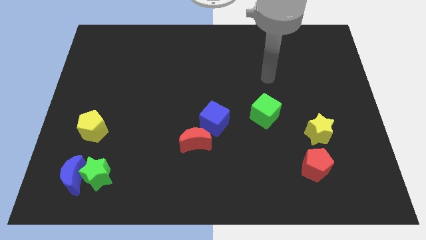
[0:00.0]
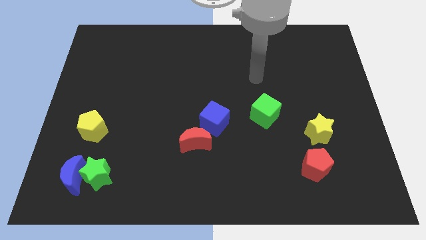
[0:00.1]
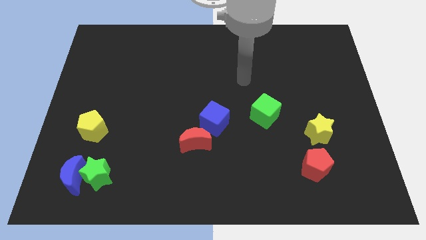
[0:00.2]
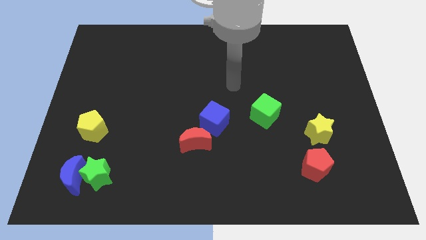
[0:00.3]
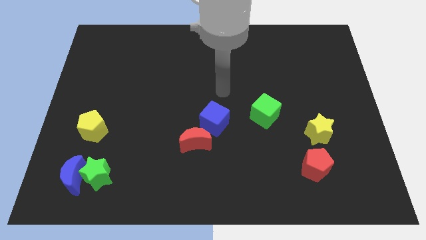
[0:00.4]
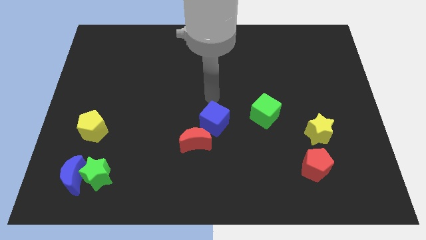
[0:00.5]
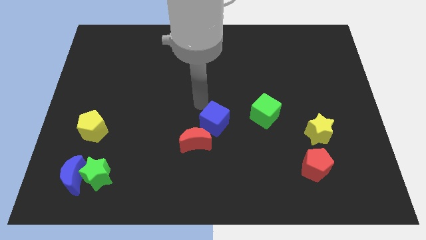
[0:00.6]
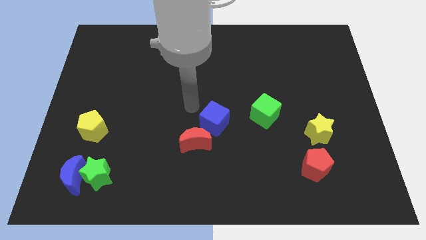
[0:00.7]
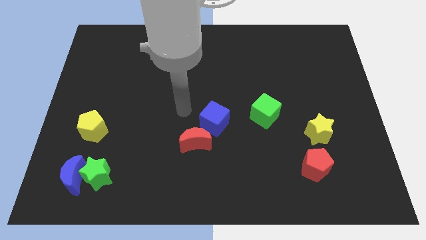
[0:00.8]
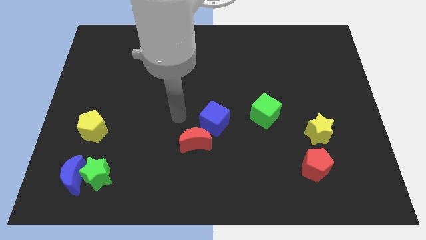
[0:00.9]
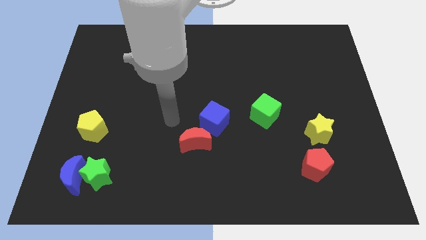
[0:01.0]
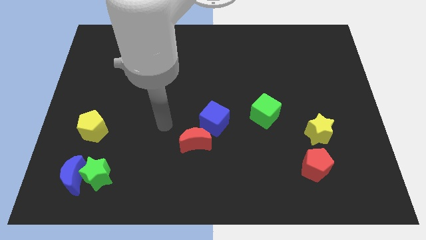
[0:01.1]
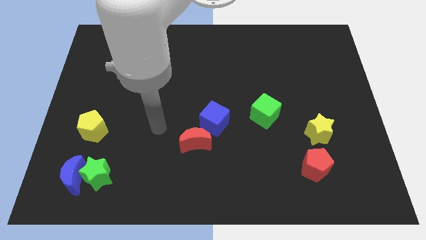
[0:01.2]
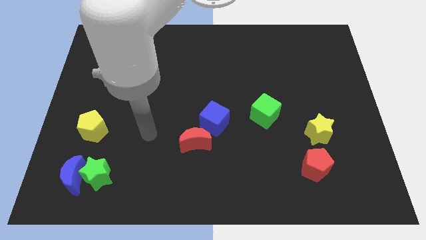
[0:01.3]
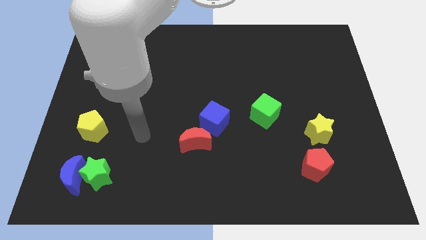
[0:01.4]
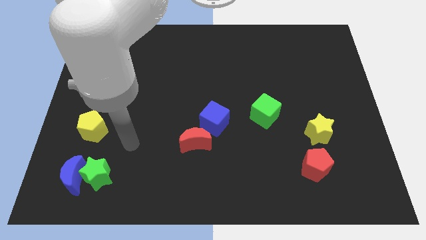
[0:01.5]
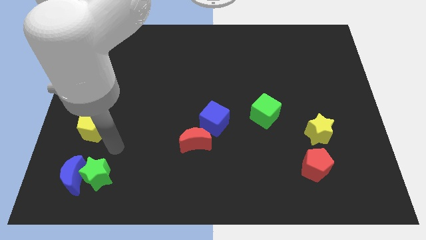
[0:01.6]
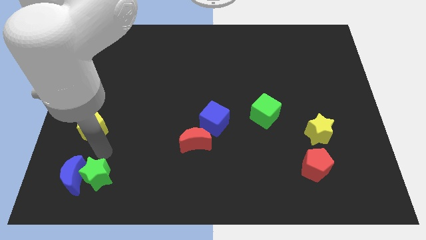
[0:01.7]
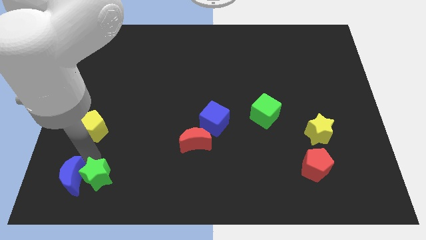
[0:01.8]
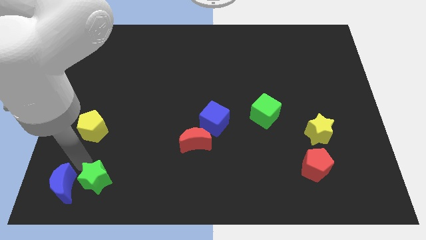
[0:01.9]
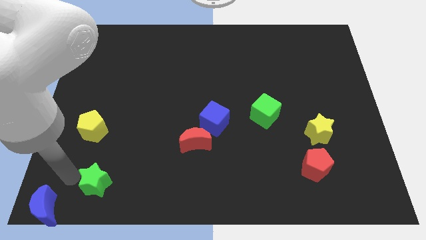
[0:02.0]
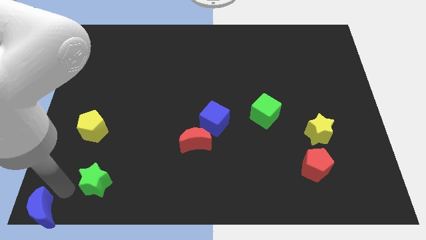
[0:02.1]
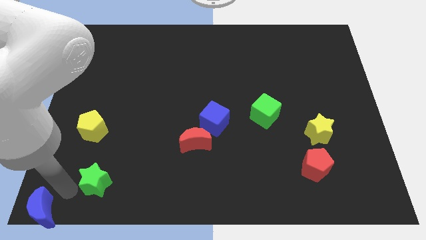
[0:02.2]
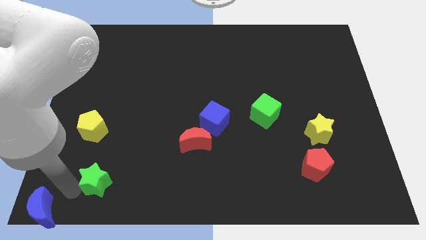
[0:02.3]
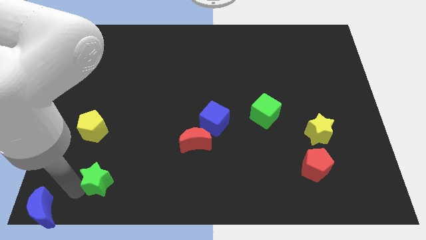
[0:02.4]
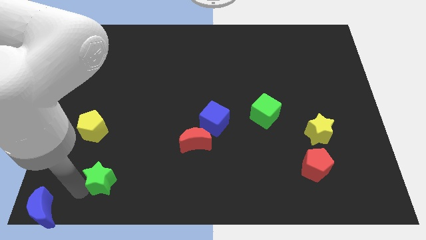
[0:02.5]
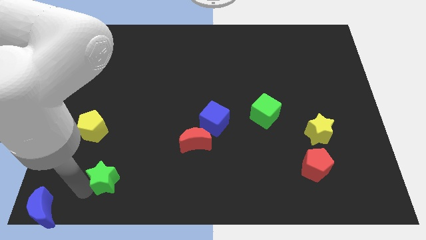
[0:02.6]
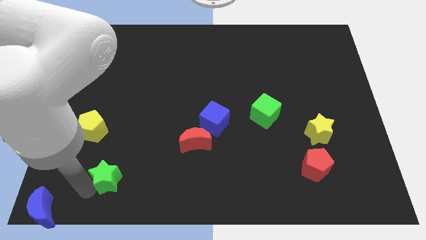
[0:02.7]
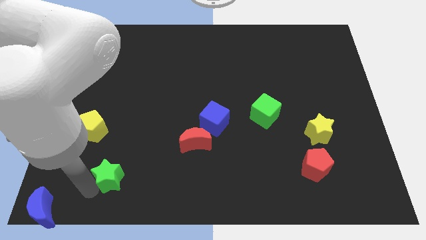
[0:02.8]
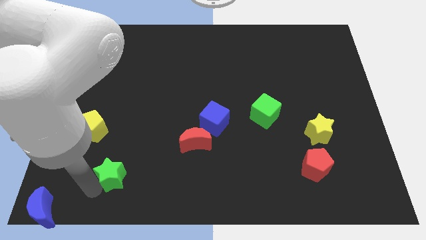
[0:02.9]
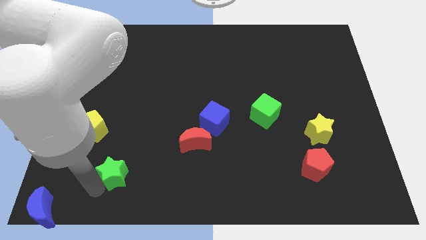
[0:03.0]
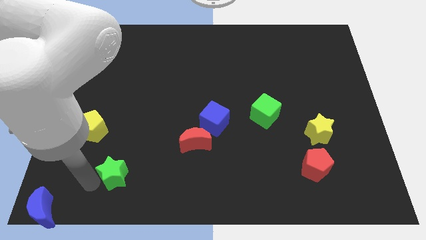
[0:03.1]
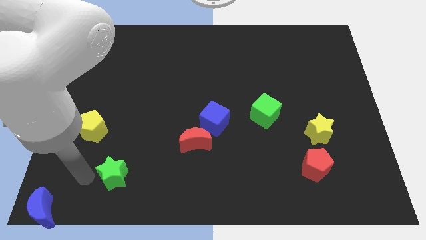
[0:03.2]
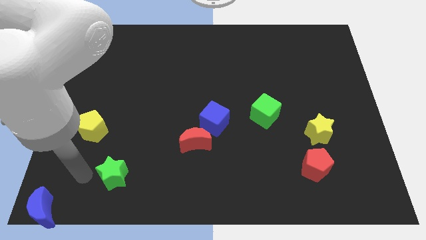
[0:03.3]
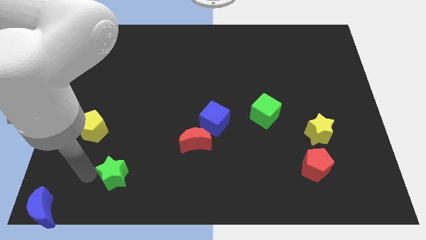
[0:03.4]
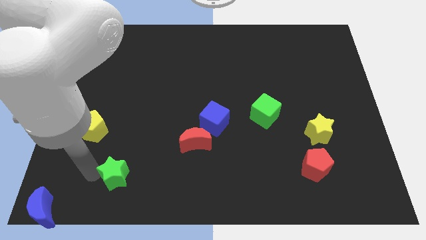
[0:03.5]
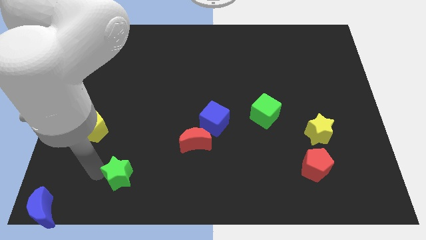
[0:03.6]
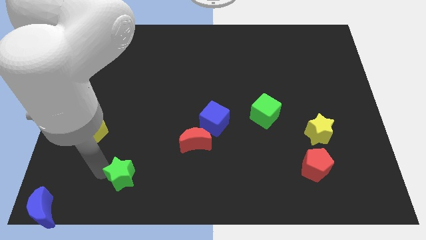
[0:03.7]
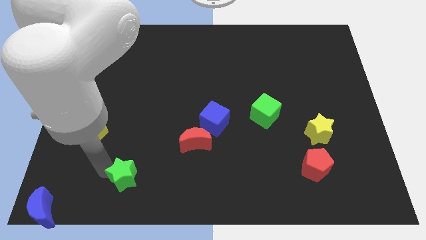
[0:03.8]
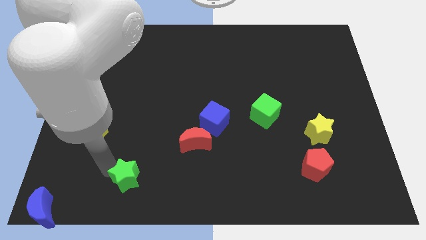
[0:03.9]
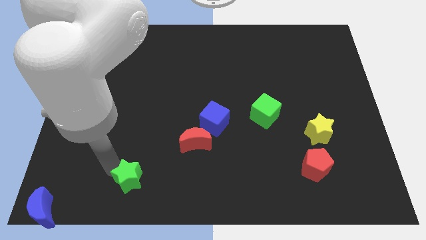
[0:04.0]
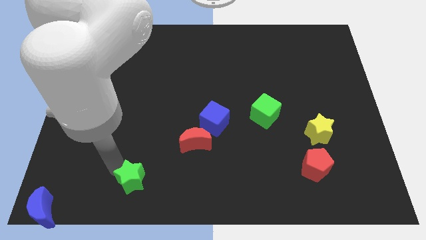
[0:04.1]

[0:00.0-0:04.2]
slightly slide the green star to the right

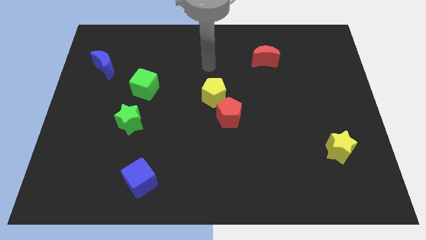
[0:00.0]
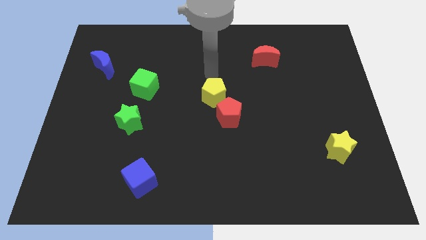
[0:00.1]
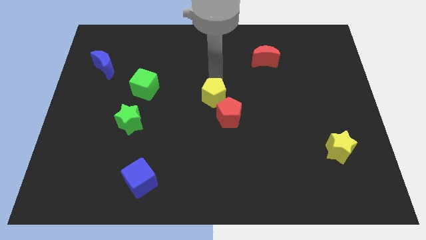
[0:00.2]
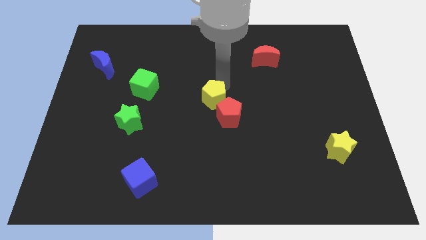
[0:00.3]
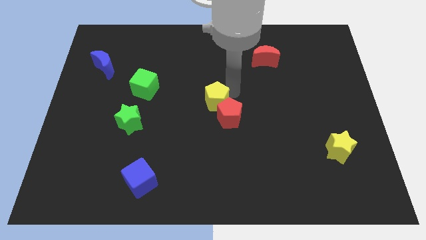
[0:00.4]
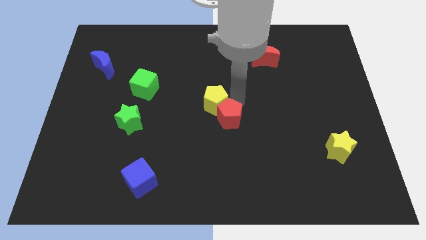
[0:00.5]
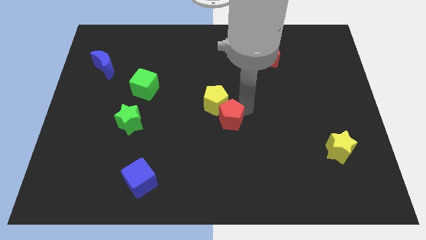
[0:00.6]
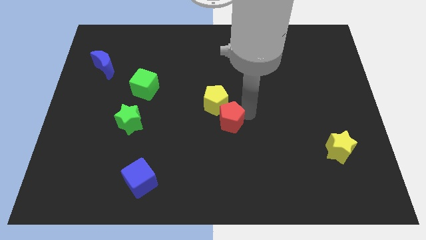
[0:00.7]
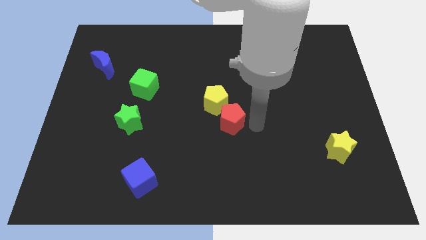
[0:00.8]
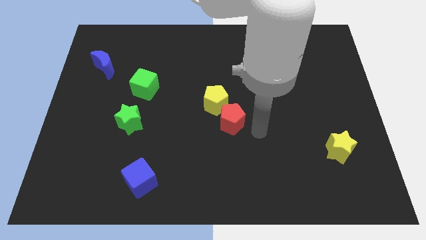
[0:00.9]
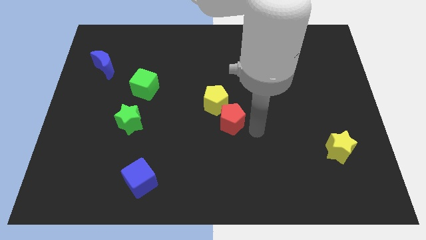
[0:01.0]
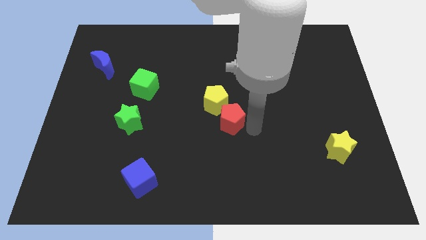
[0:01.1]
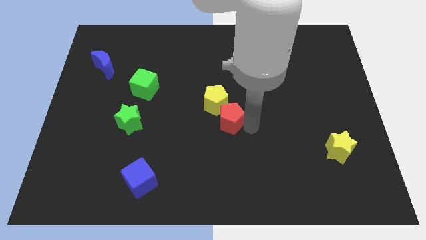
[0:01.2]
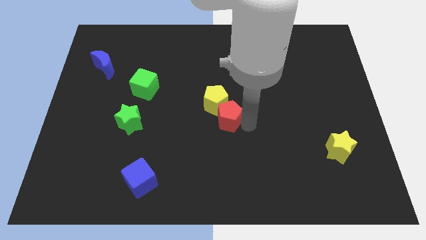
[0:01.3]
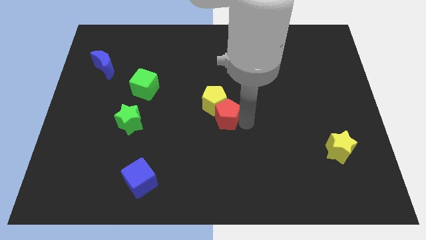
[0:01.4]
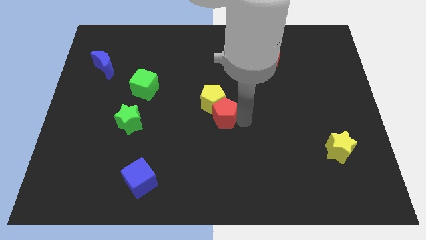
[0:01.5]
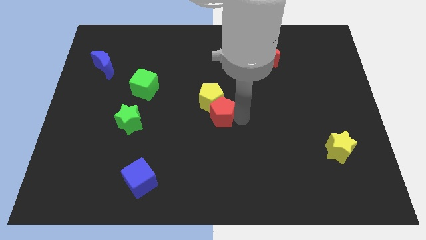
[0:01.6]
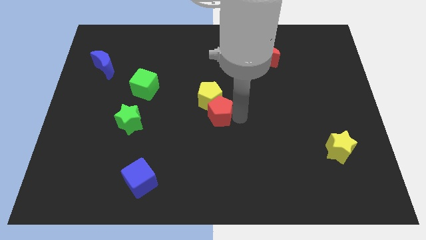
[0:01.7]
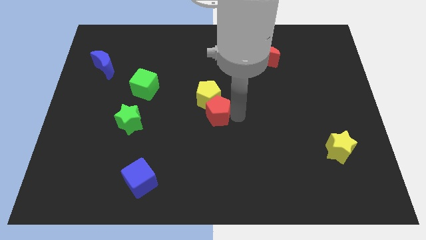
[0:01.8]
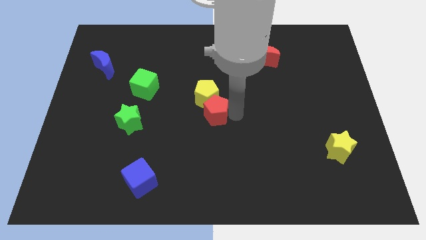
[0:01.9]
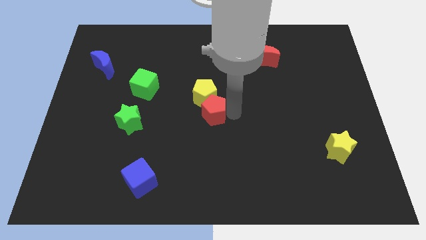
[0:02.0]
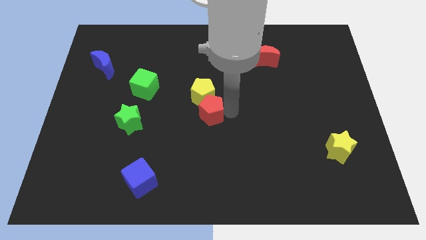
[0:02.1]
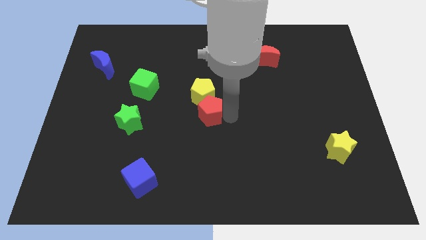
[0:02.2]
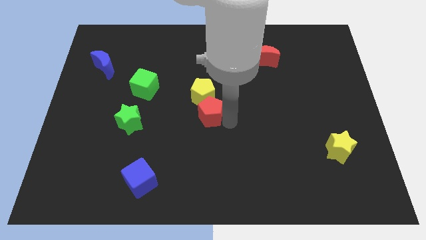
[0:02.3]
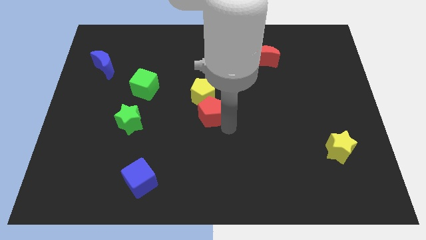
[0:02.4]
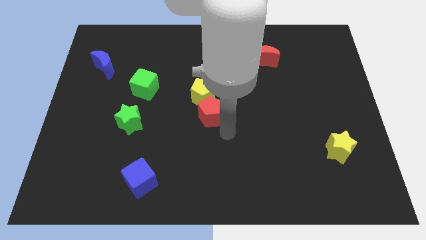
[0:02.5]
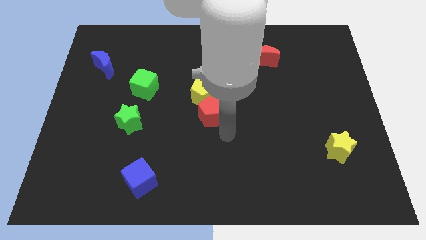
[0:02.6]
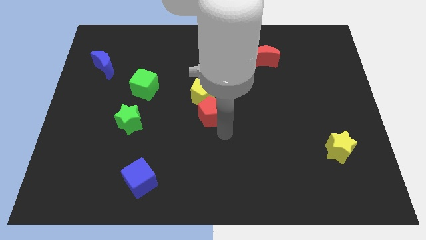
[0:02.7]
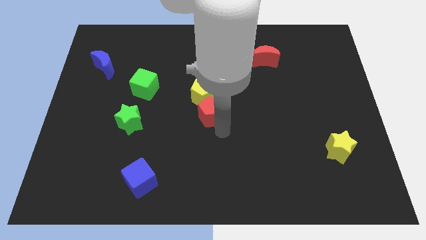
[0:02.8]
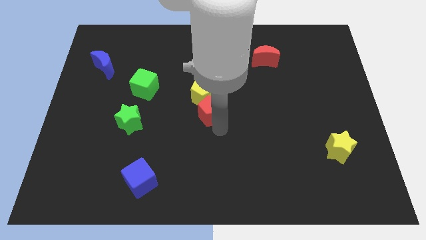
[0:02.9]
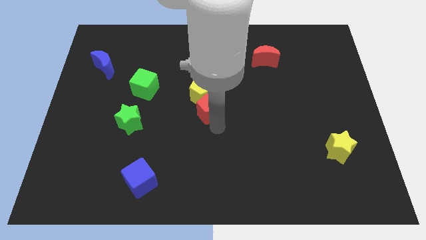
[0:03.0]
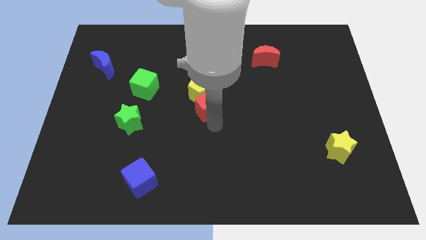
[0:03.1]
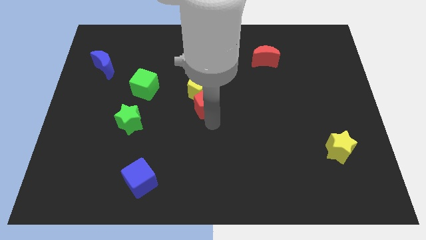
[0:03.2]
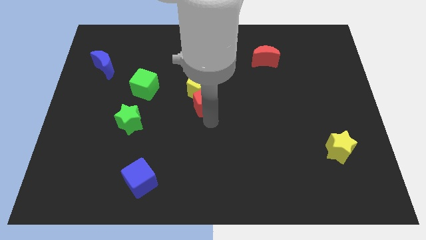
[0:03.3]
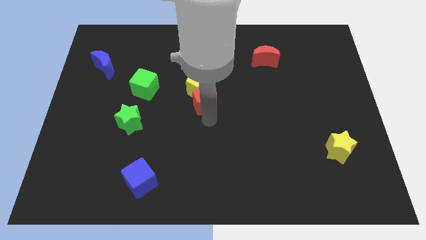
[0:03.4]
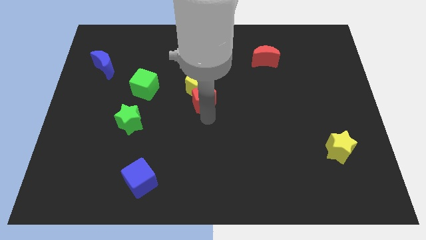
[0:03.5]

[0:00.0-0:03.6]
slide the red pentagon diagonally up and left a little

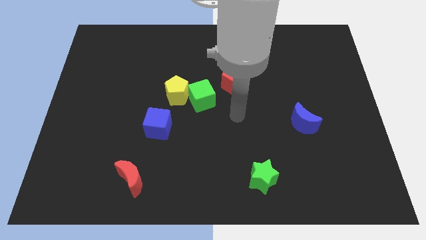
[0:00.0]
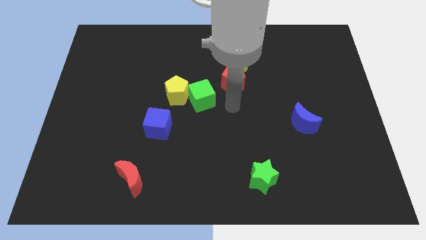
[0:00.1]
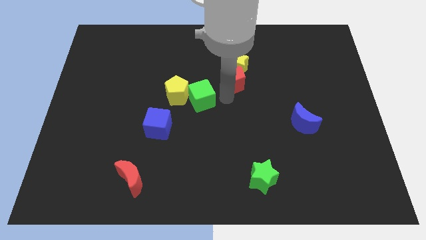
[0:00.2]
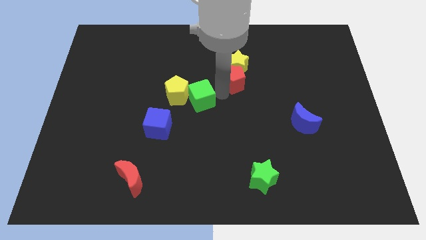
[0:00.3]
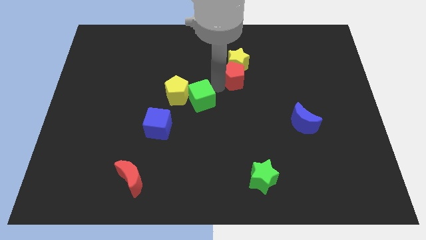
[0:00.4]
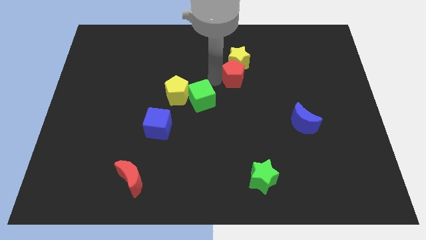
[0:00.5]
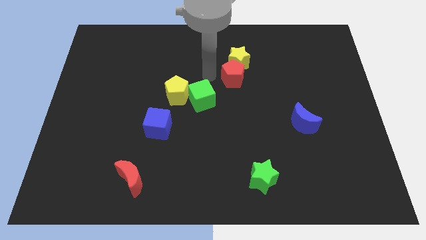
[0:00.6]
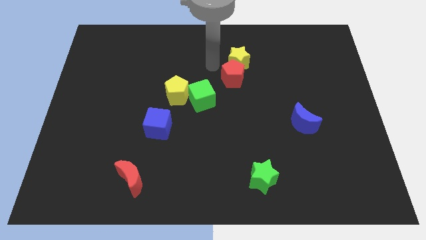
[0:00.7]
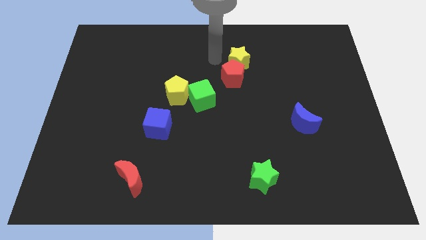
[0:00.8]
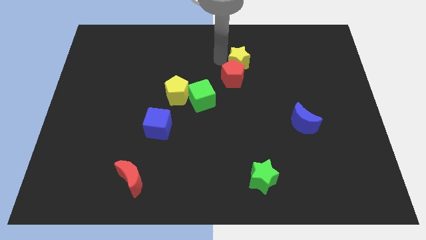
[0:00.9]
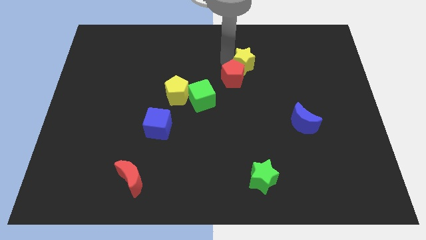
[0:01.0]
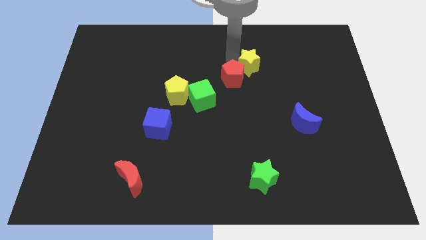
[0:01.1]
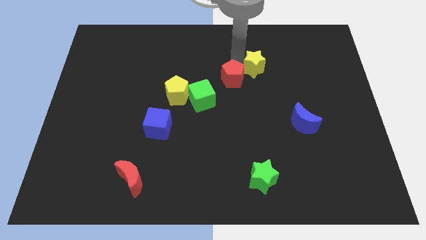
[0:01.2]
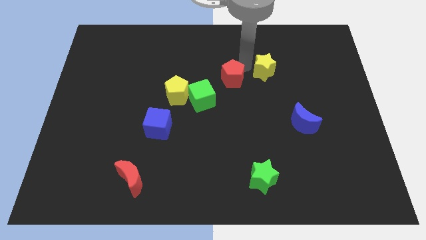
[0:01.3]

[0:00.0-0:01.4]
slide the yellow star a bit to the right
